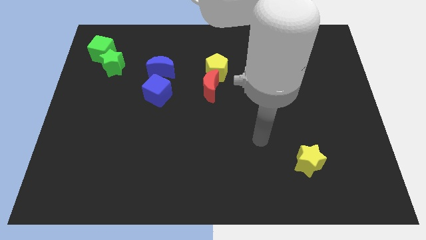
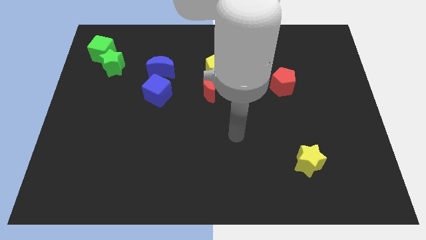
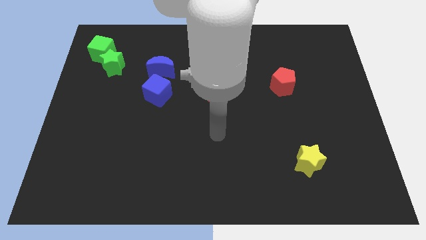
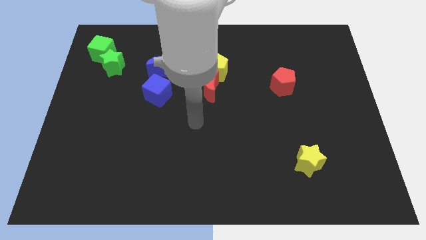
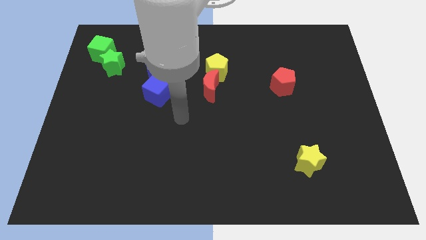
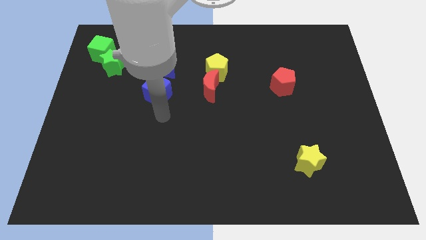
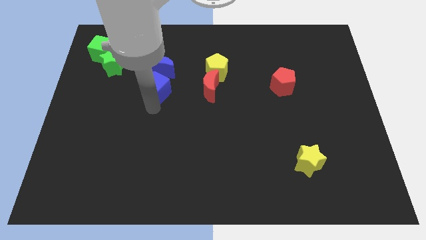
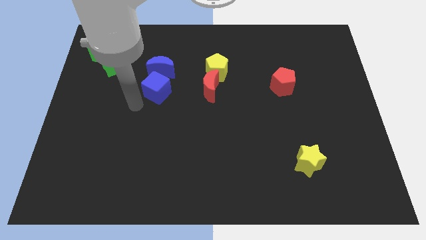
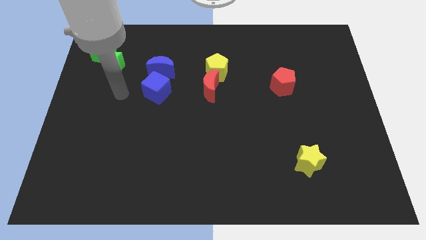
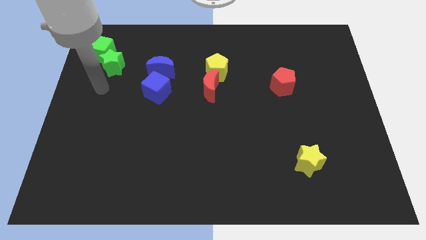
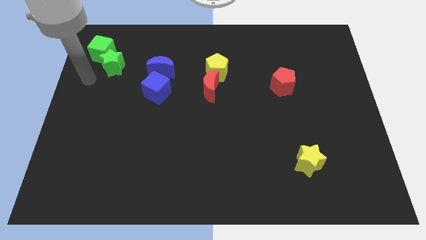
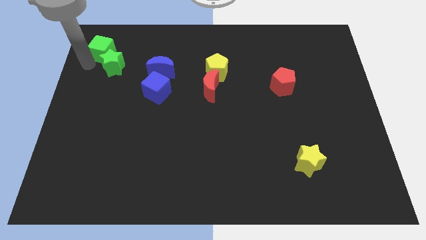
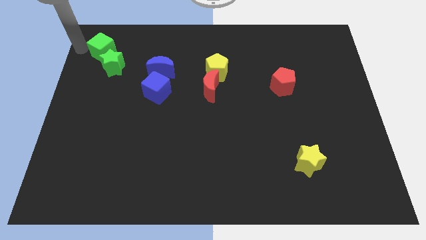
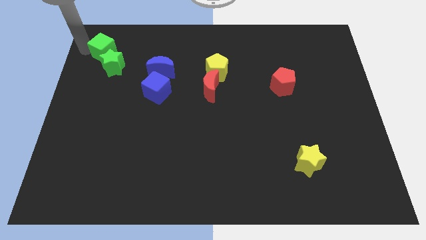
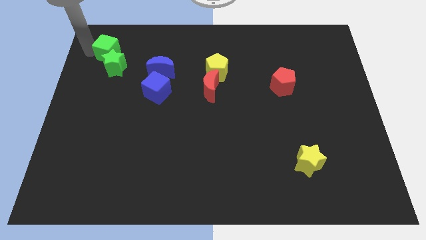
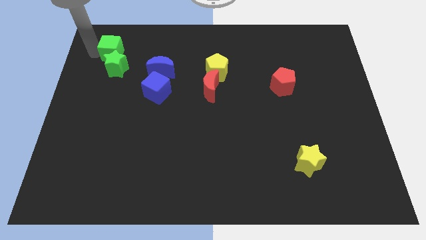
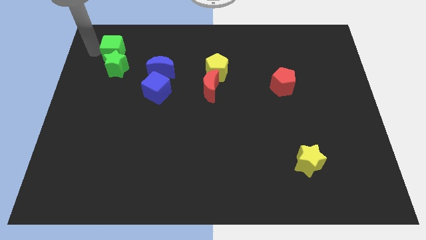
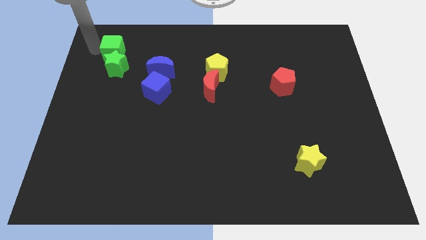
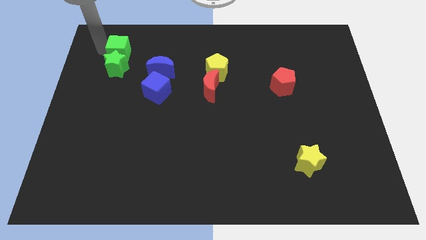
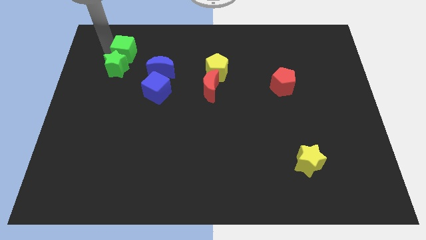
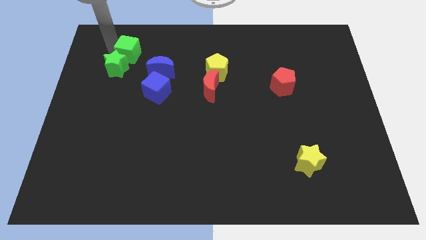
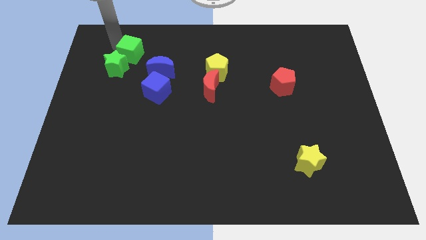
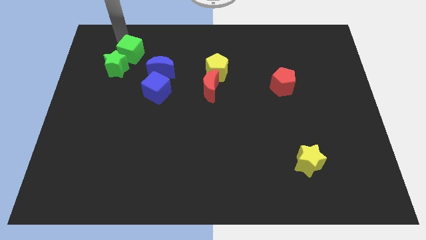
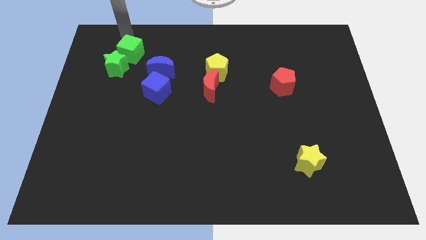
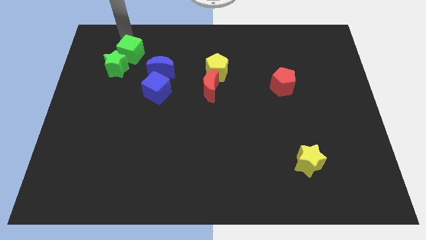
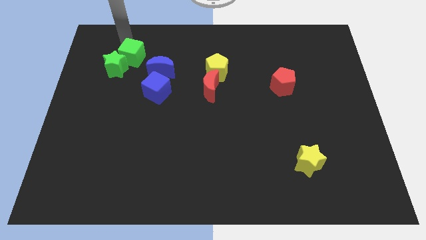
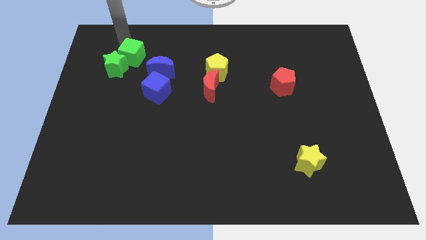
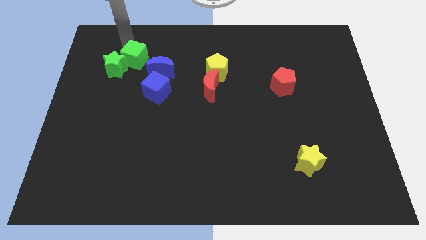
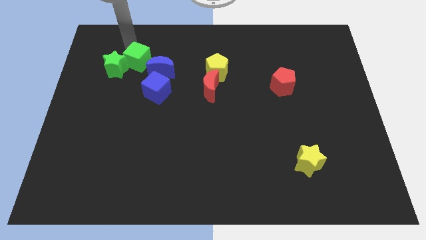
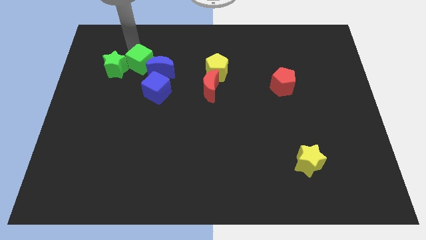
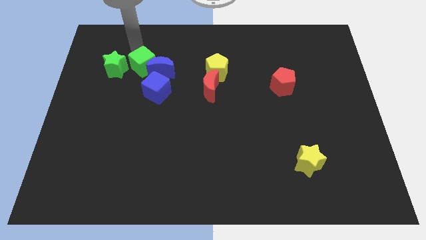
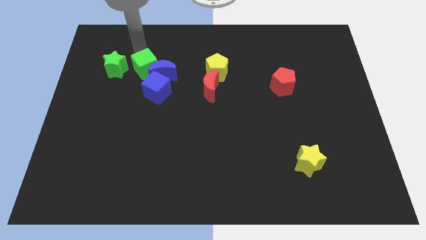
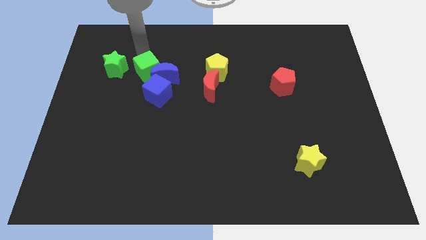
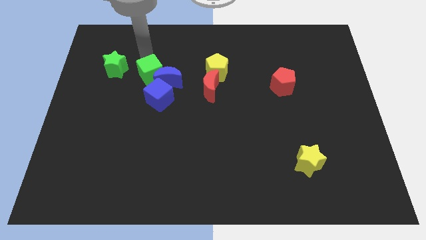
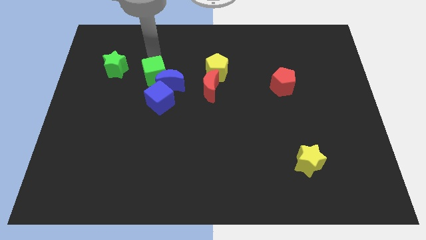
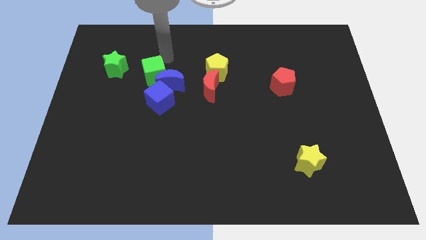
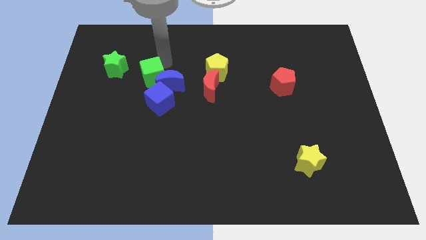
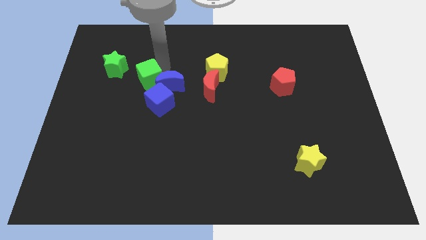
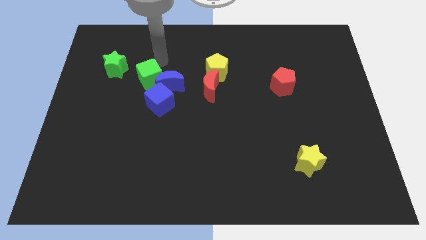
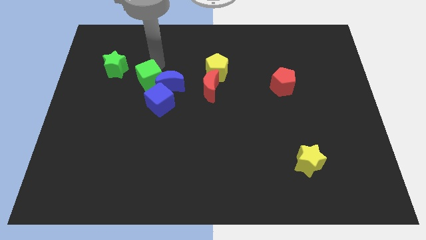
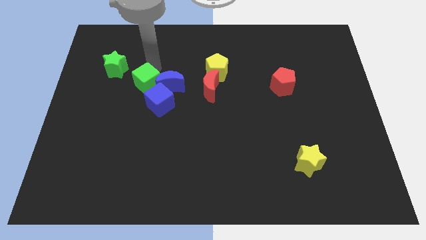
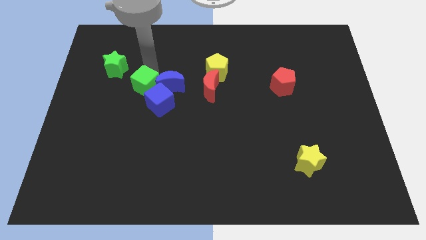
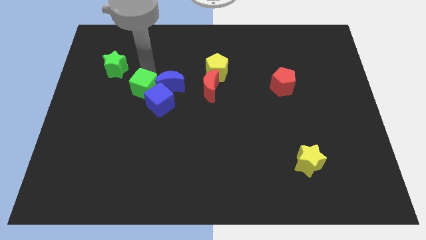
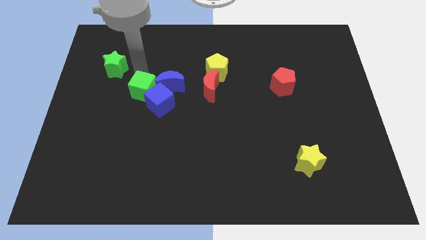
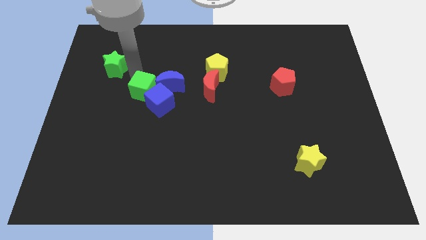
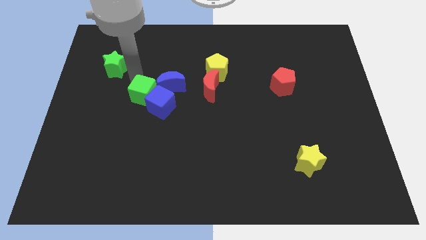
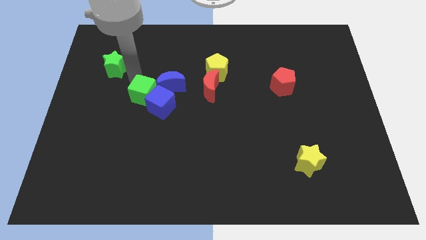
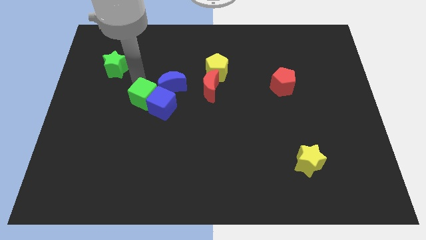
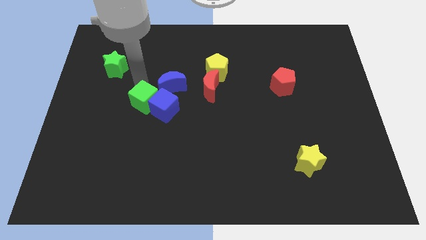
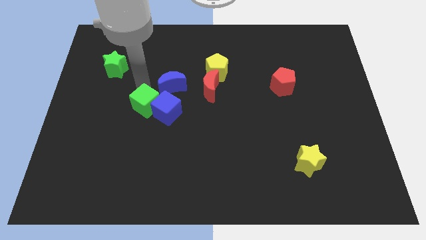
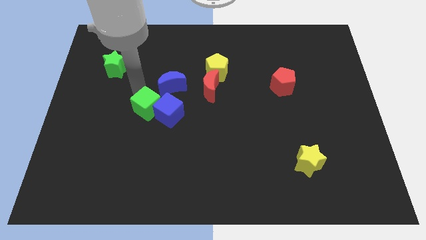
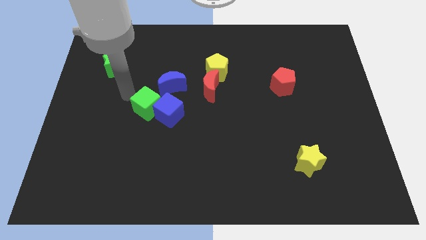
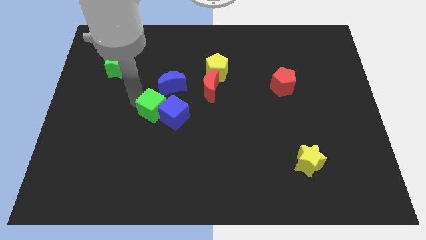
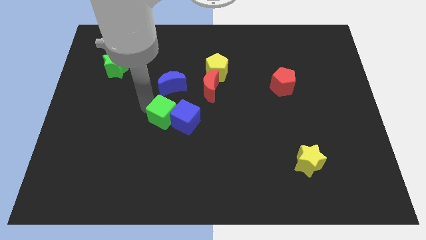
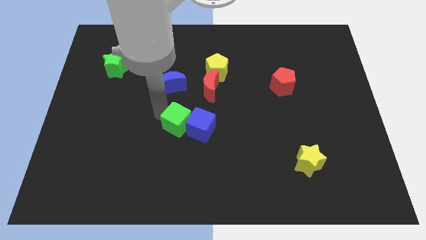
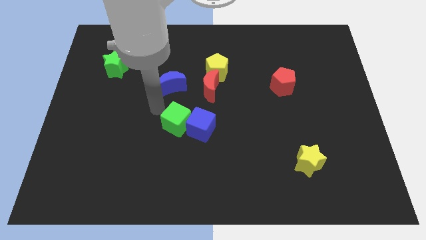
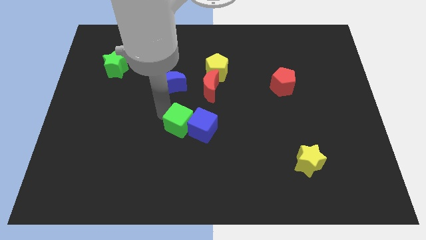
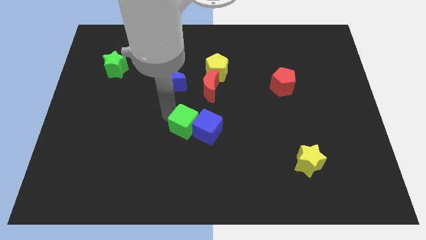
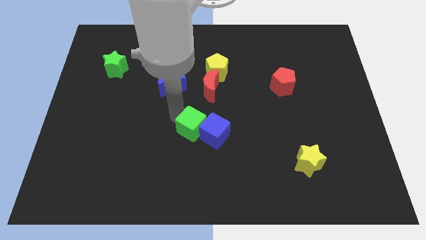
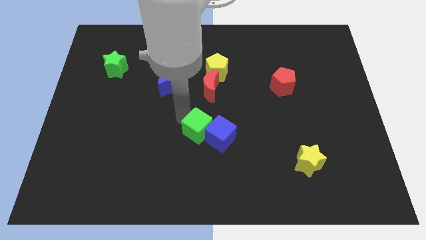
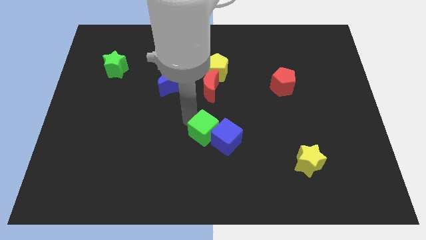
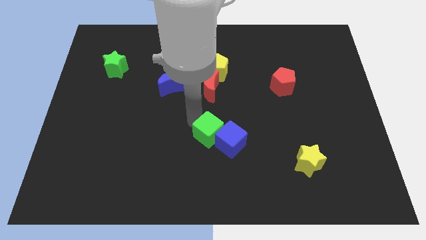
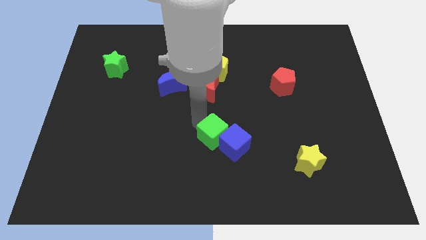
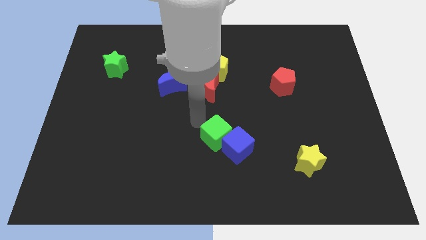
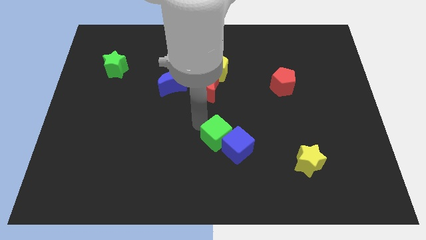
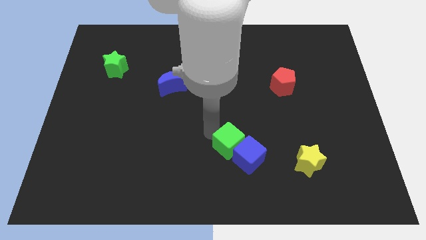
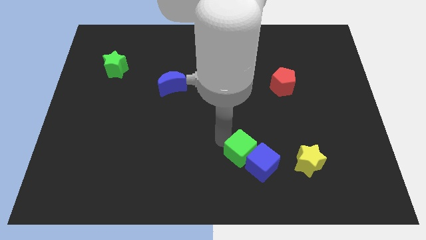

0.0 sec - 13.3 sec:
move the green cube just left of the yellow star

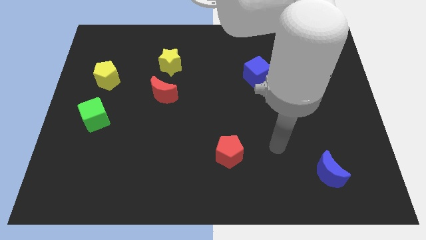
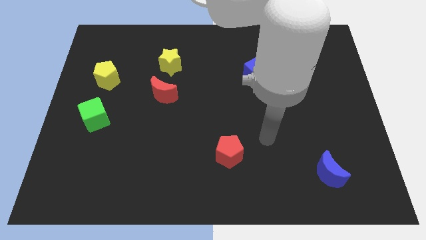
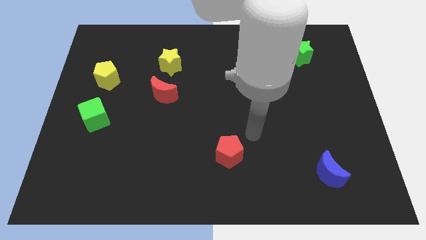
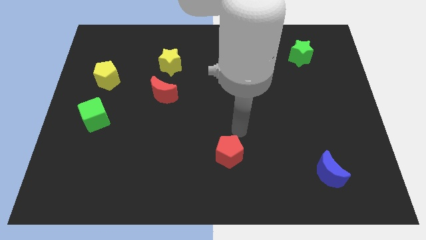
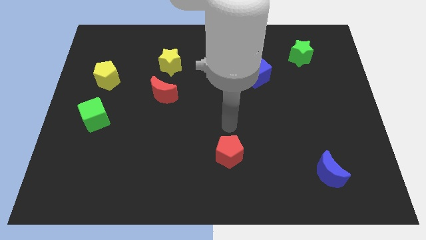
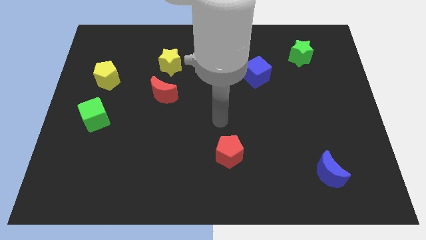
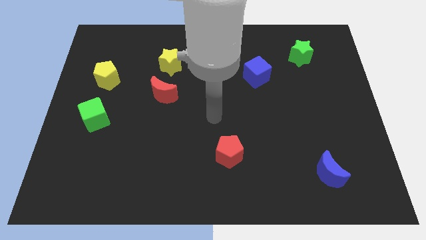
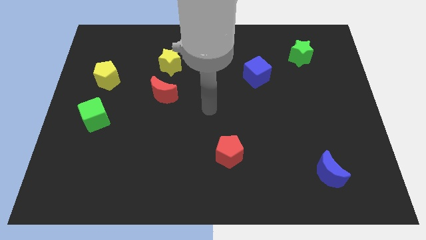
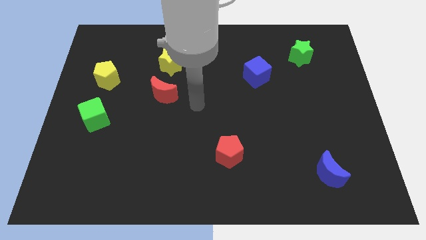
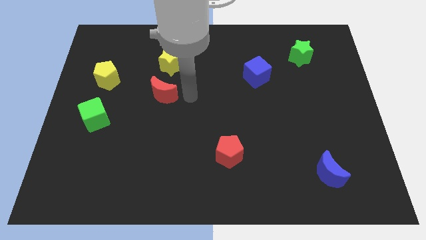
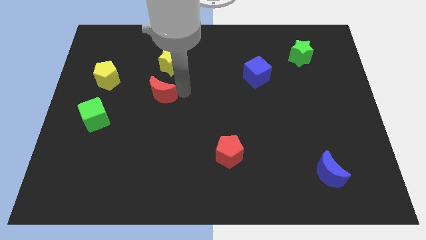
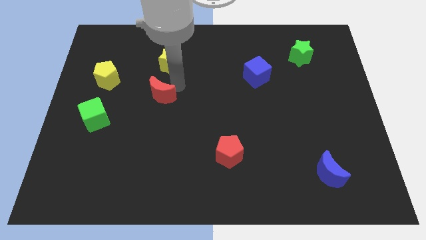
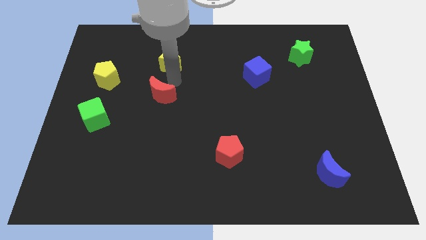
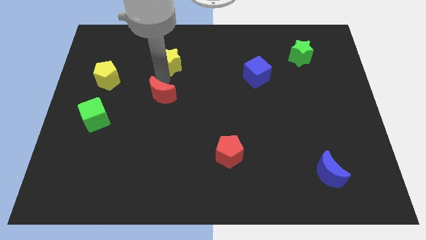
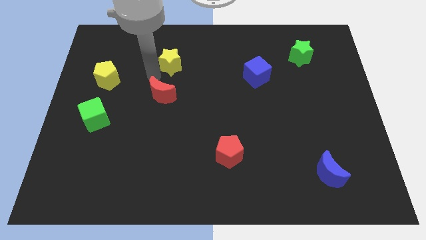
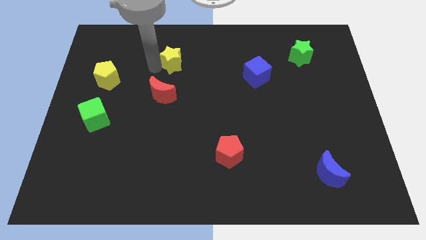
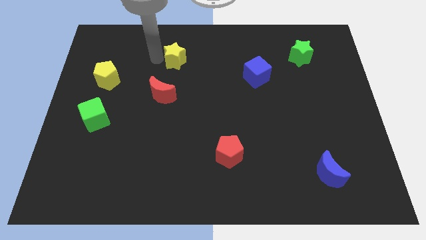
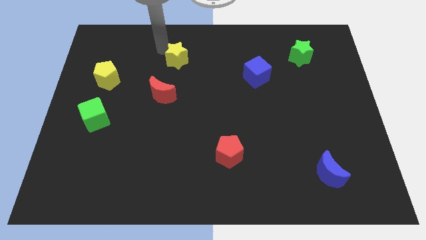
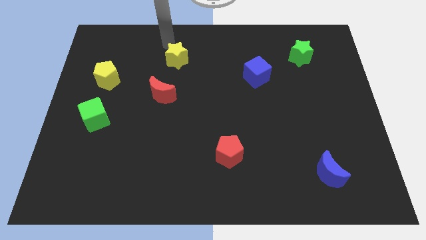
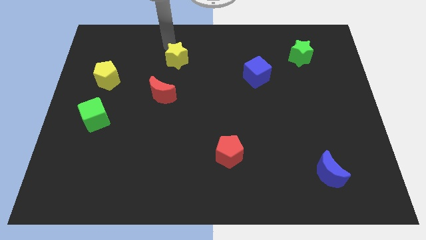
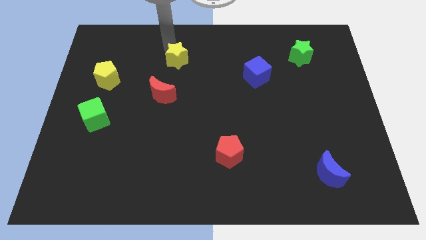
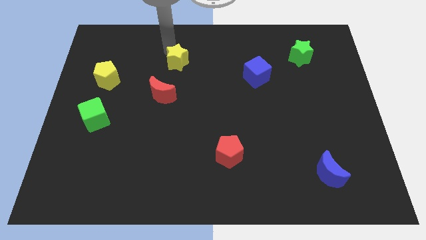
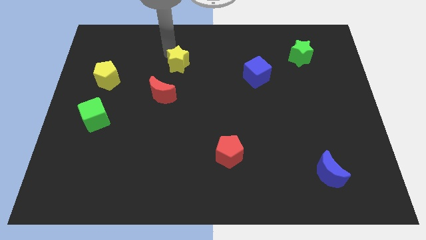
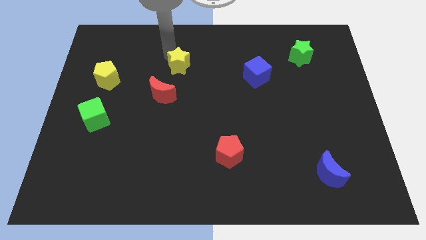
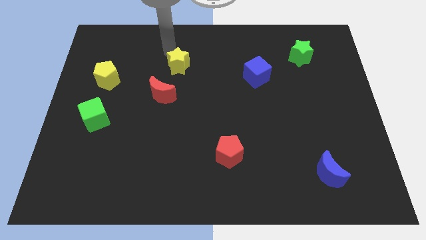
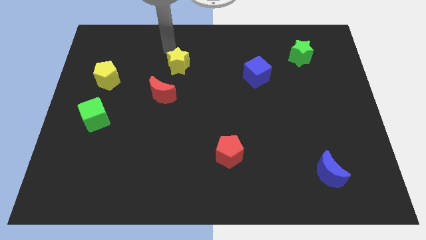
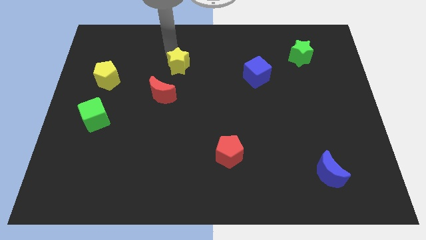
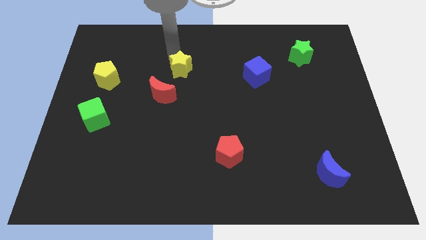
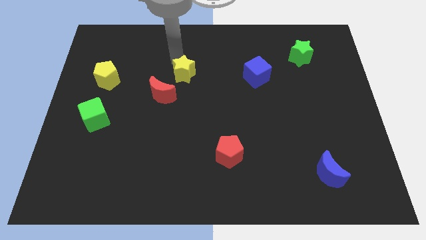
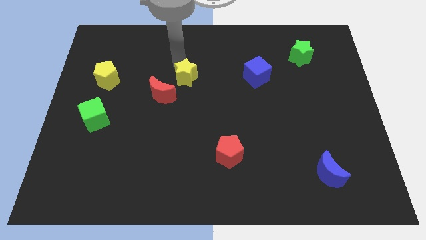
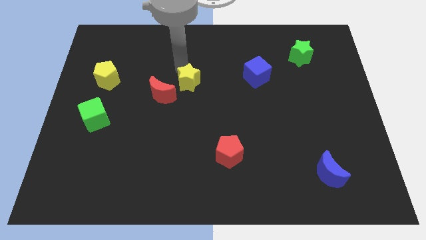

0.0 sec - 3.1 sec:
move the yellow star to the right of the red moon
